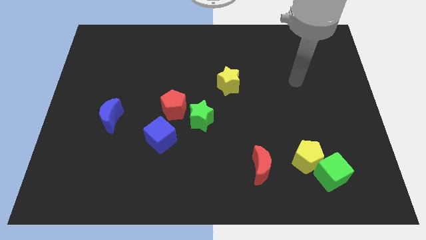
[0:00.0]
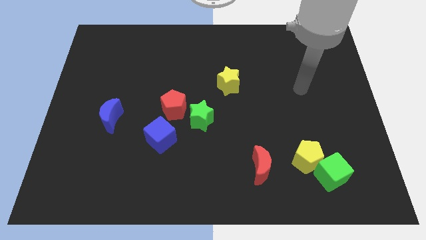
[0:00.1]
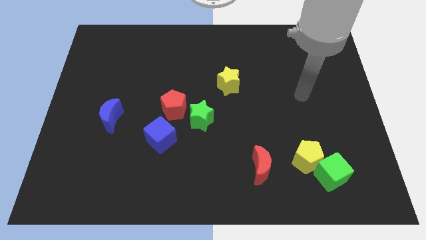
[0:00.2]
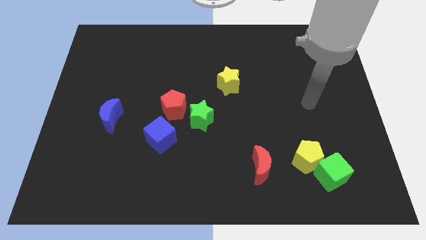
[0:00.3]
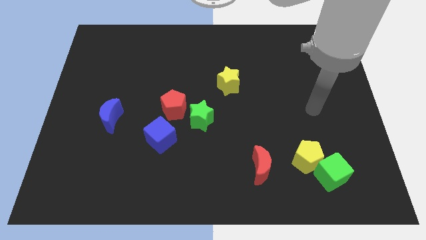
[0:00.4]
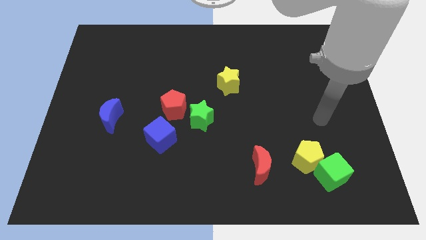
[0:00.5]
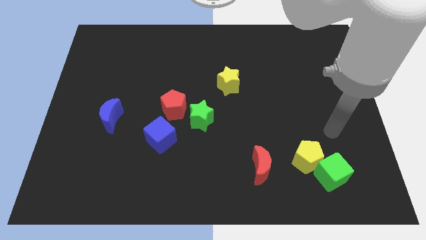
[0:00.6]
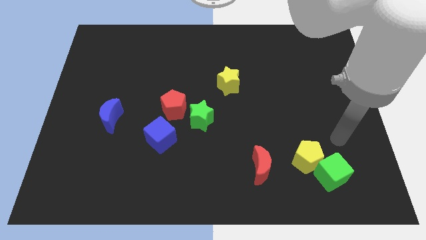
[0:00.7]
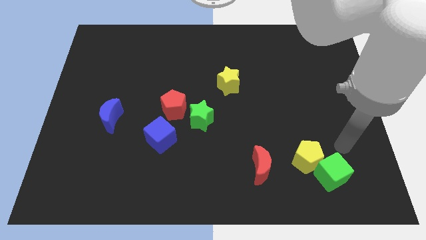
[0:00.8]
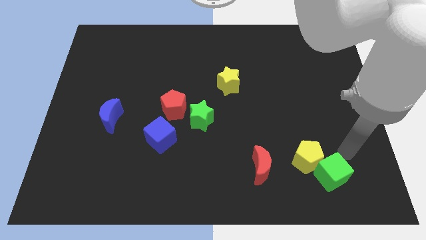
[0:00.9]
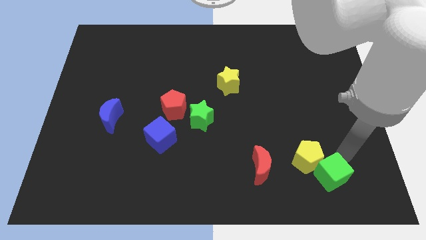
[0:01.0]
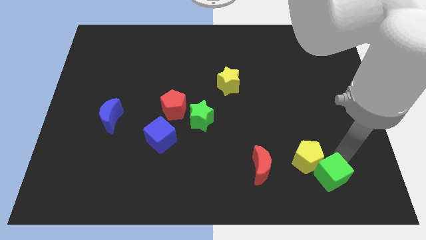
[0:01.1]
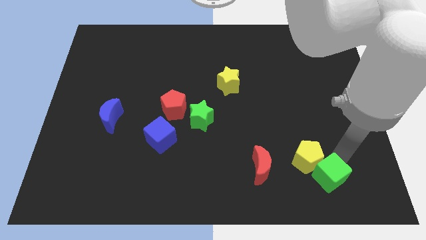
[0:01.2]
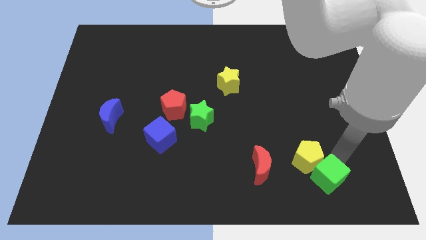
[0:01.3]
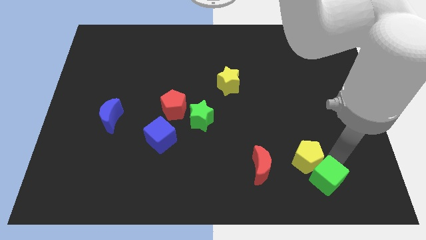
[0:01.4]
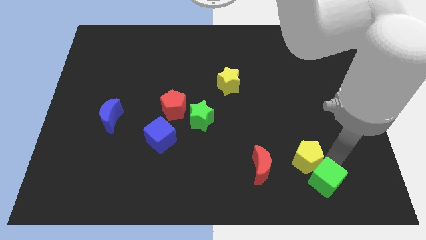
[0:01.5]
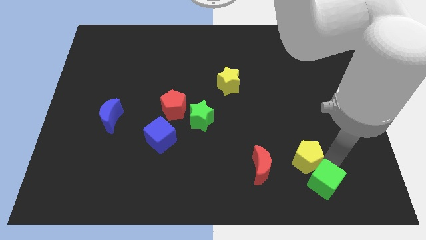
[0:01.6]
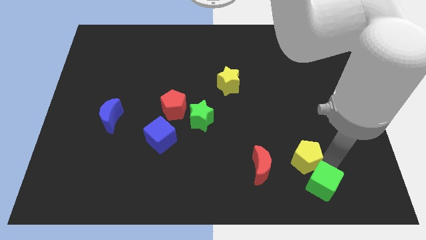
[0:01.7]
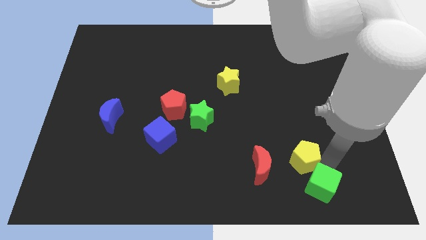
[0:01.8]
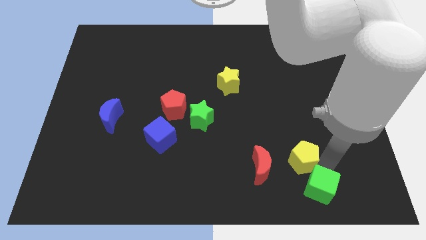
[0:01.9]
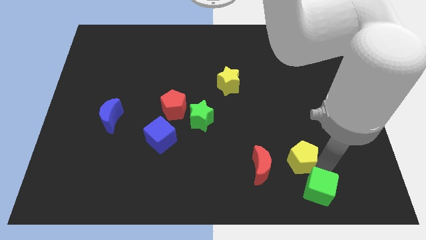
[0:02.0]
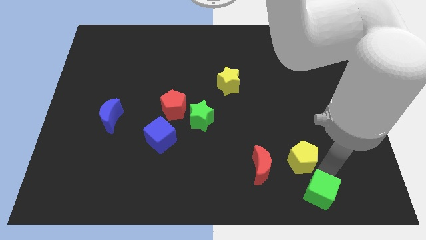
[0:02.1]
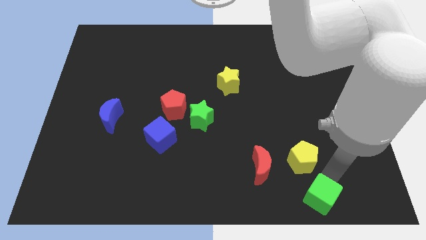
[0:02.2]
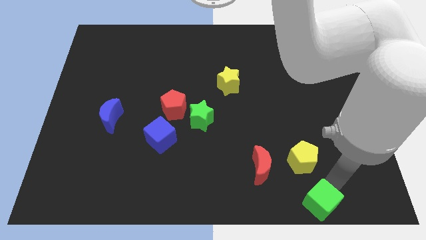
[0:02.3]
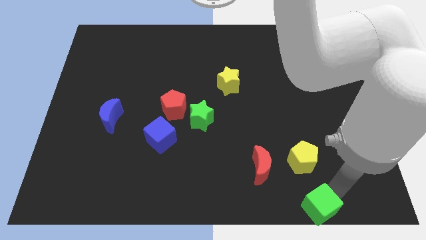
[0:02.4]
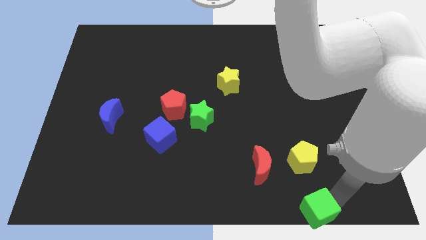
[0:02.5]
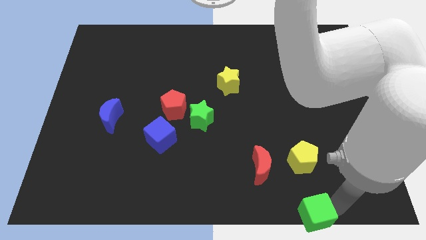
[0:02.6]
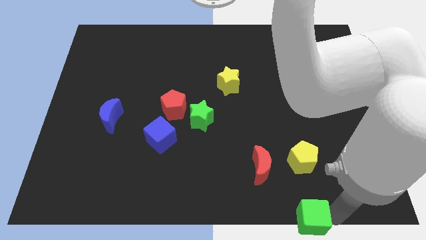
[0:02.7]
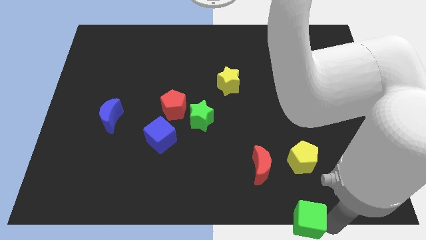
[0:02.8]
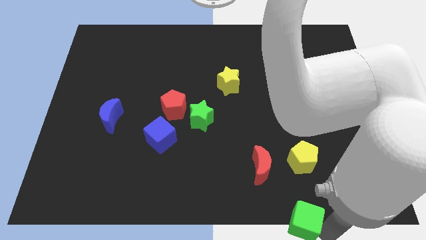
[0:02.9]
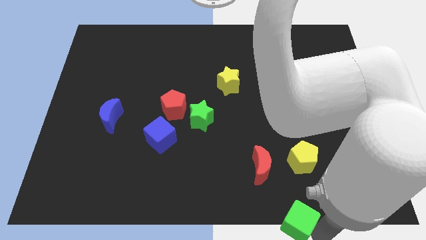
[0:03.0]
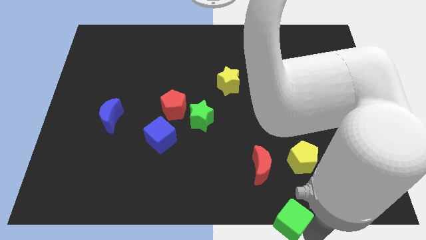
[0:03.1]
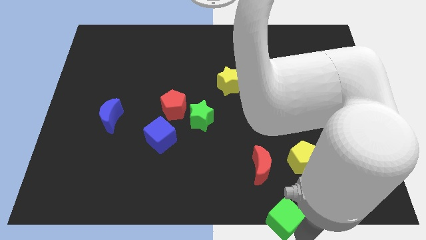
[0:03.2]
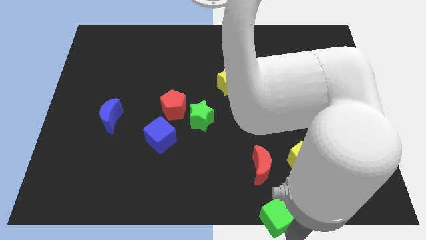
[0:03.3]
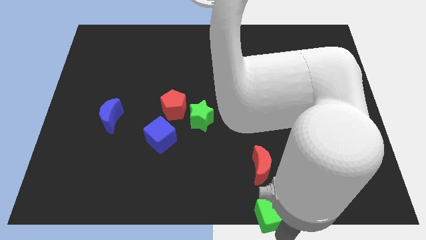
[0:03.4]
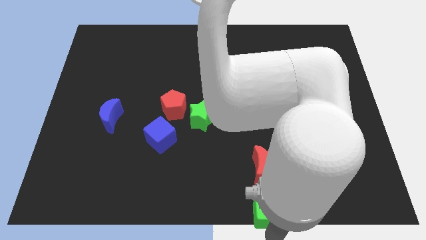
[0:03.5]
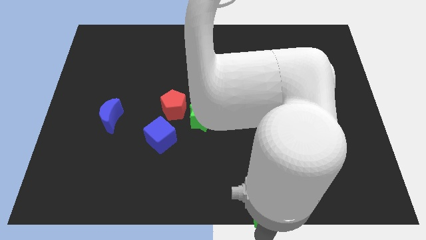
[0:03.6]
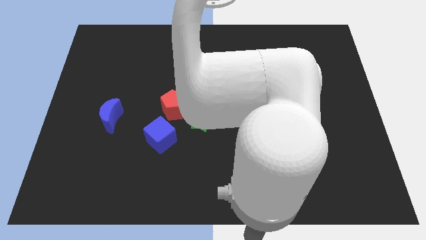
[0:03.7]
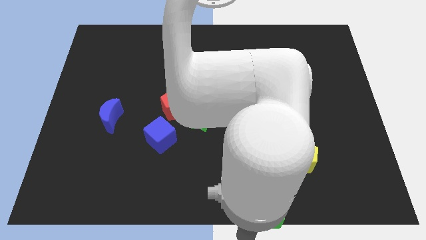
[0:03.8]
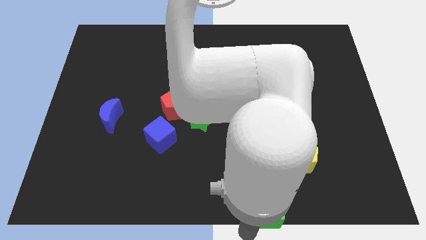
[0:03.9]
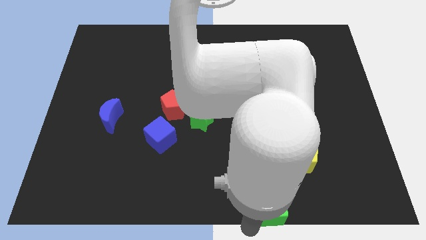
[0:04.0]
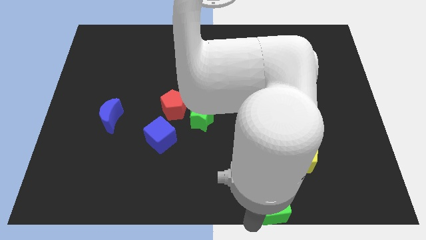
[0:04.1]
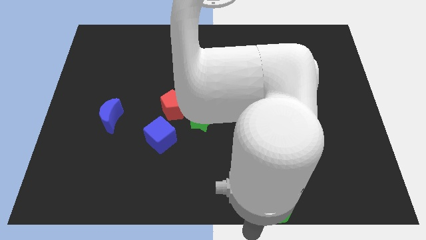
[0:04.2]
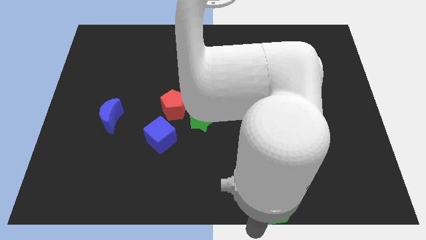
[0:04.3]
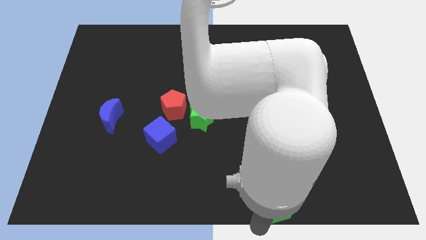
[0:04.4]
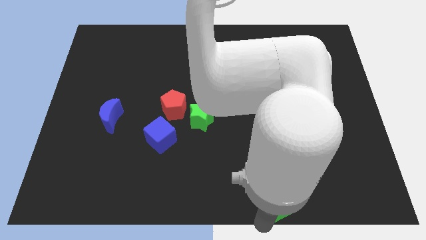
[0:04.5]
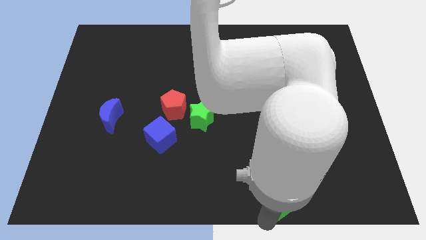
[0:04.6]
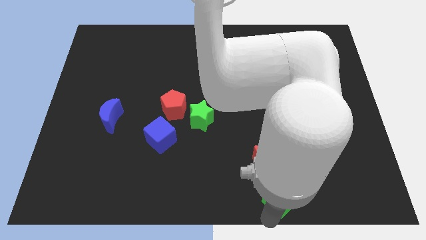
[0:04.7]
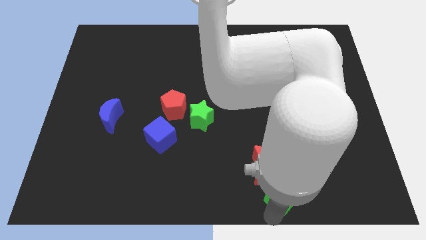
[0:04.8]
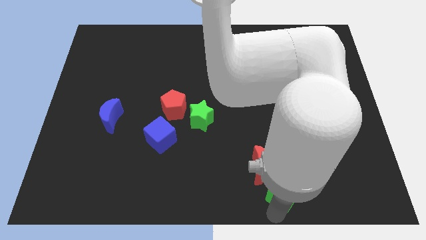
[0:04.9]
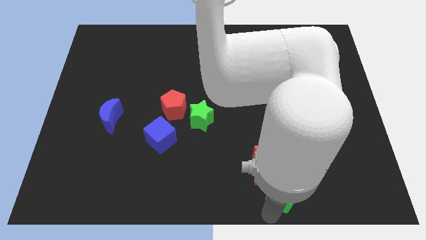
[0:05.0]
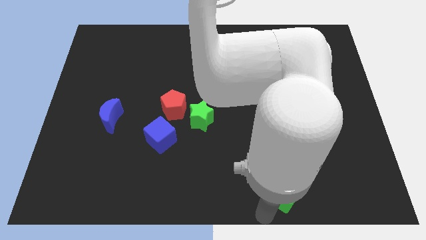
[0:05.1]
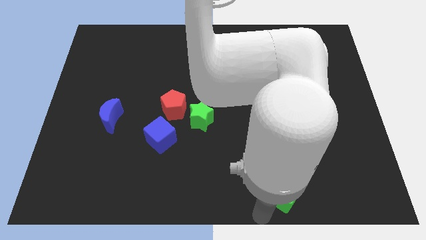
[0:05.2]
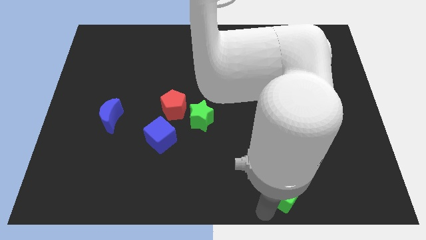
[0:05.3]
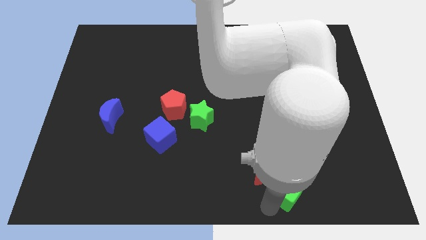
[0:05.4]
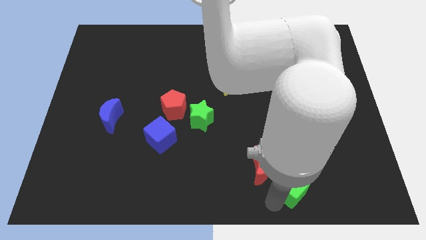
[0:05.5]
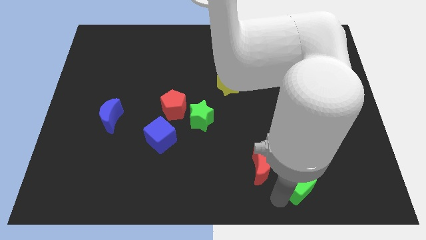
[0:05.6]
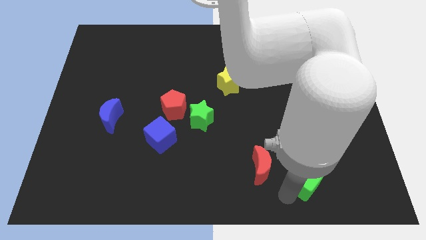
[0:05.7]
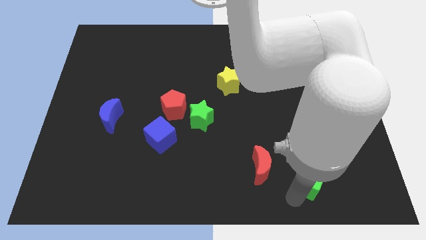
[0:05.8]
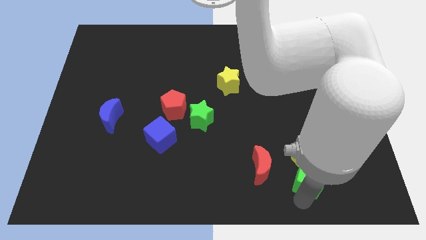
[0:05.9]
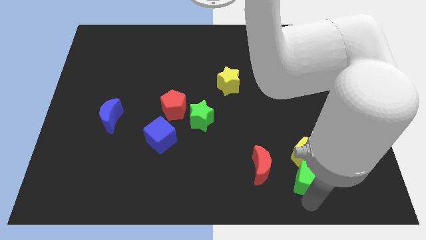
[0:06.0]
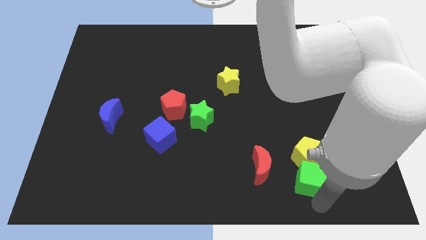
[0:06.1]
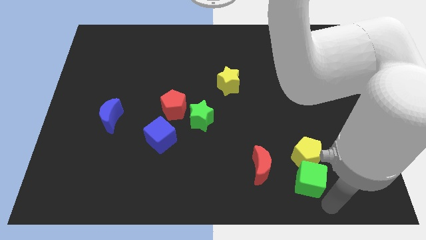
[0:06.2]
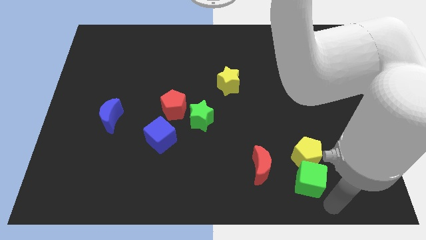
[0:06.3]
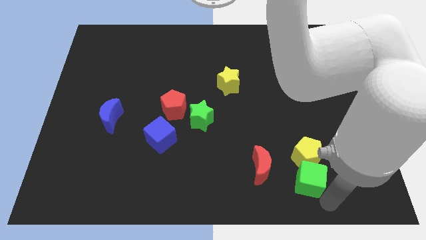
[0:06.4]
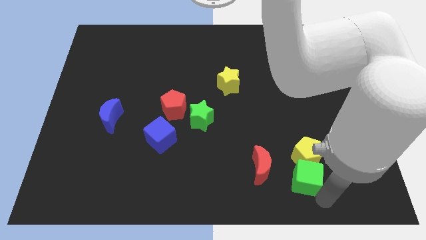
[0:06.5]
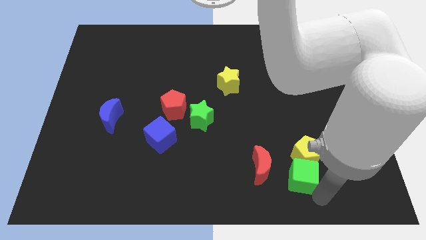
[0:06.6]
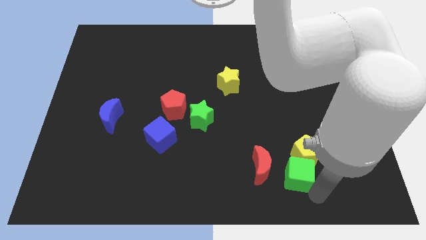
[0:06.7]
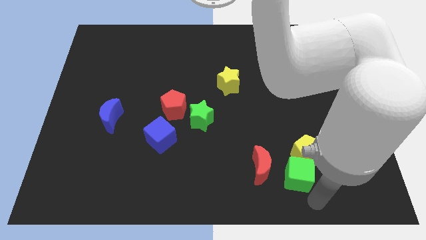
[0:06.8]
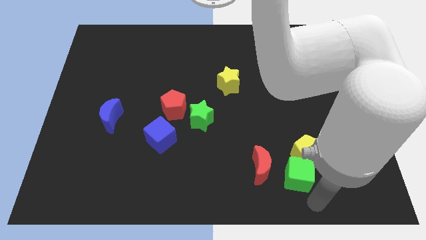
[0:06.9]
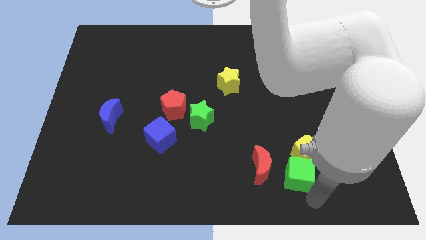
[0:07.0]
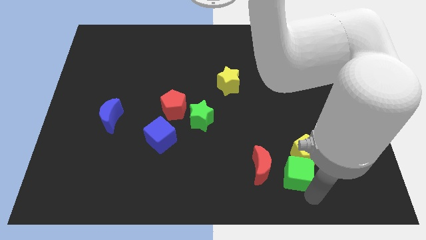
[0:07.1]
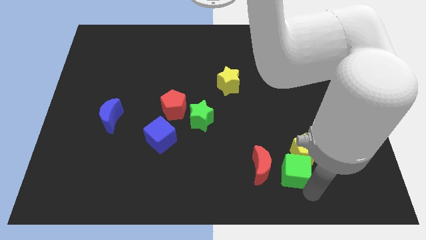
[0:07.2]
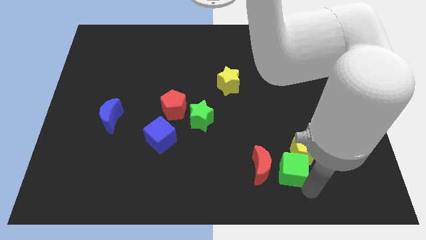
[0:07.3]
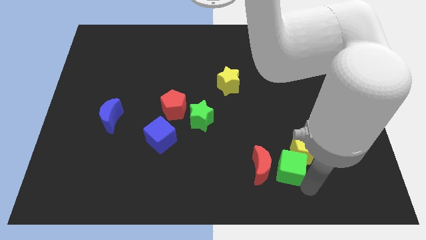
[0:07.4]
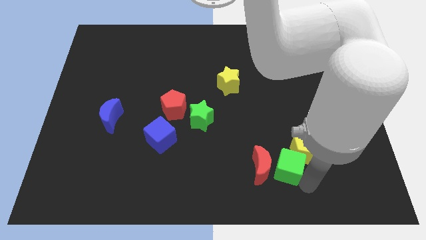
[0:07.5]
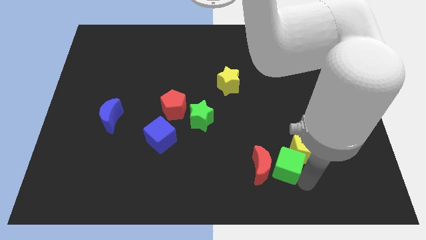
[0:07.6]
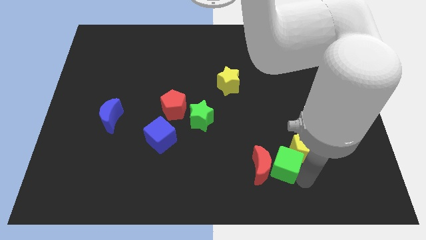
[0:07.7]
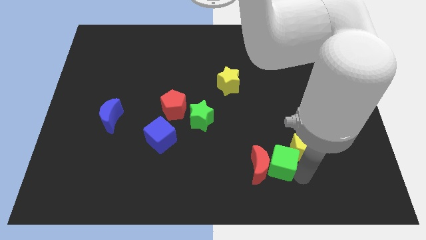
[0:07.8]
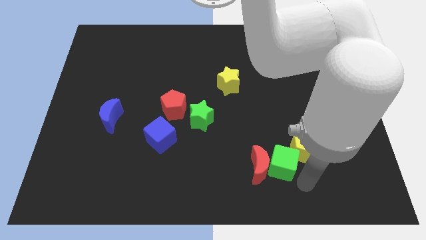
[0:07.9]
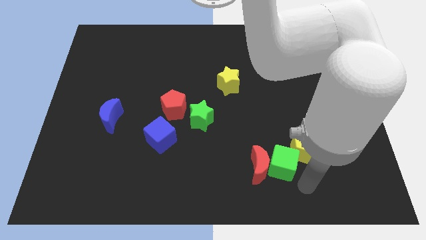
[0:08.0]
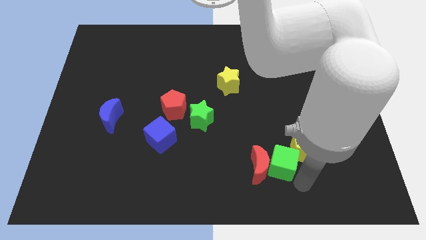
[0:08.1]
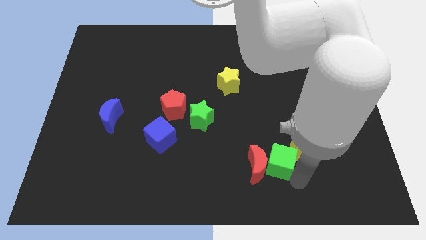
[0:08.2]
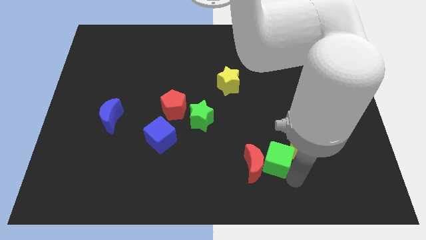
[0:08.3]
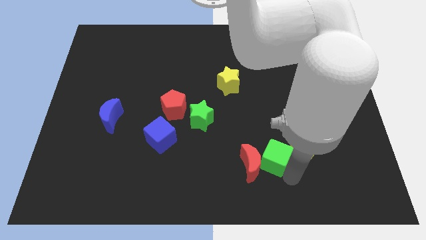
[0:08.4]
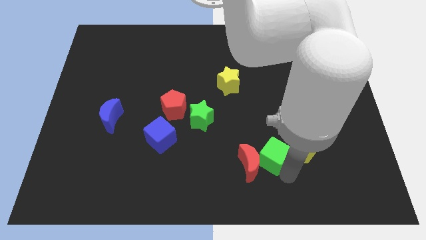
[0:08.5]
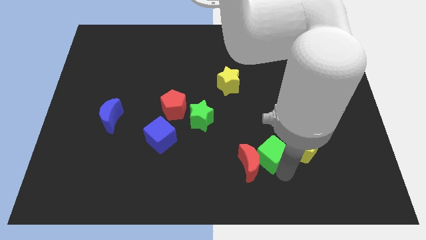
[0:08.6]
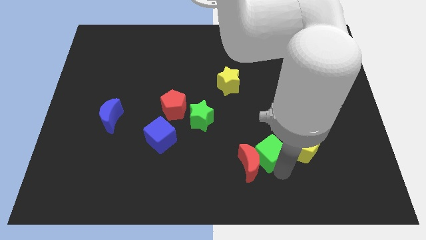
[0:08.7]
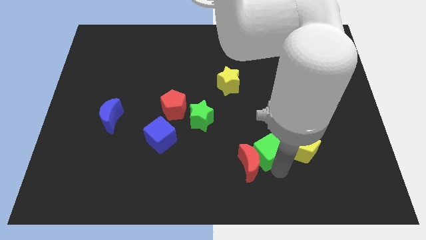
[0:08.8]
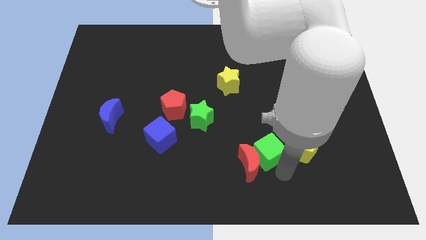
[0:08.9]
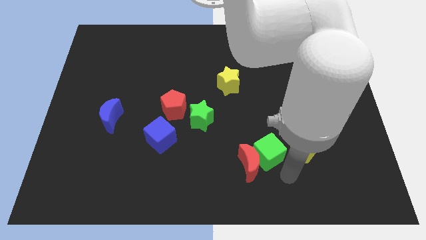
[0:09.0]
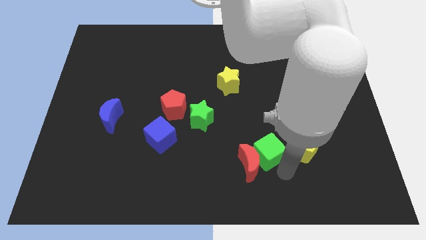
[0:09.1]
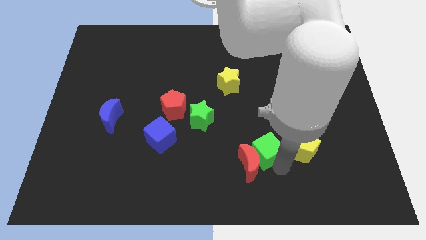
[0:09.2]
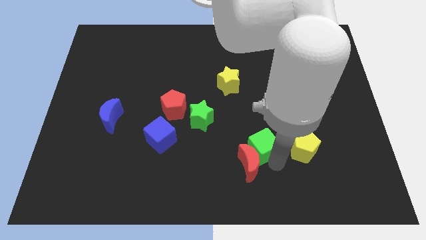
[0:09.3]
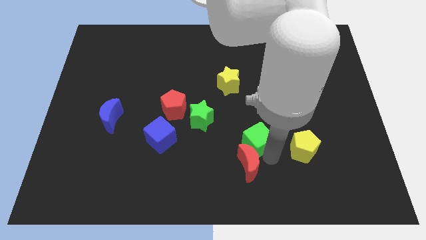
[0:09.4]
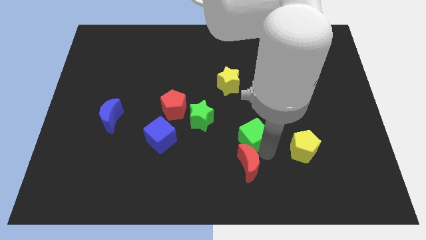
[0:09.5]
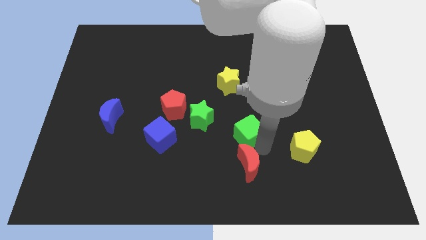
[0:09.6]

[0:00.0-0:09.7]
put the green cube to the center of the board
